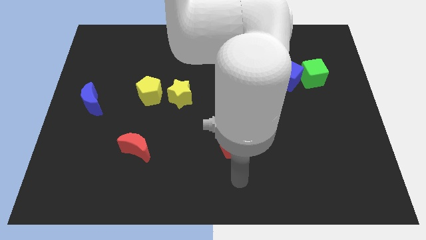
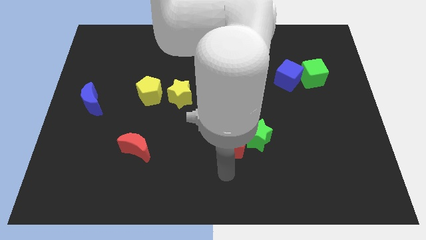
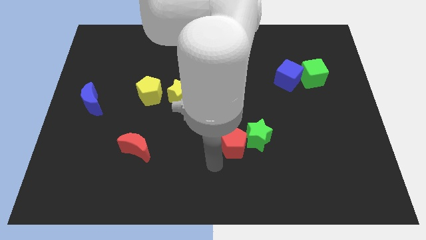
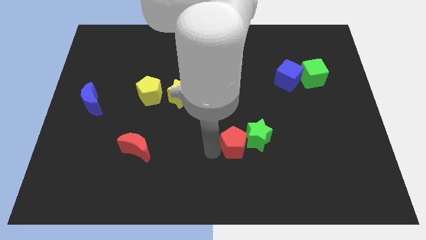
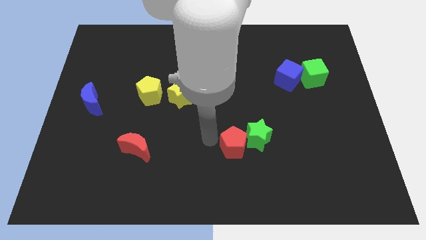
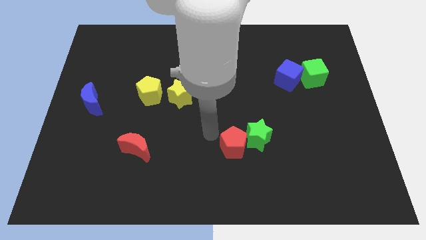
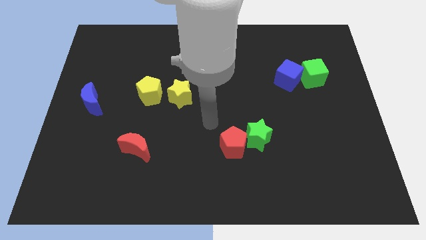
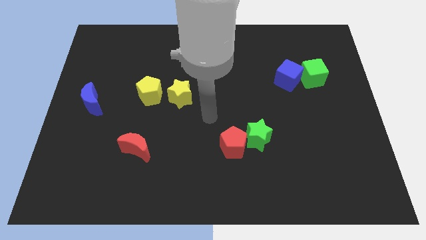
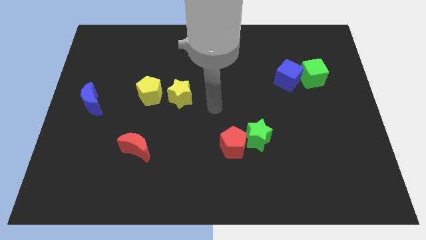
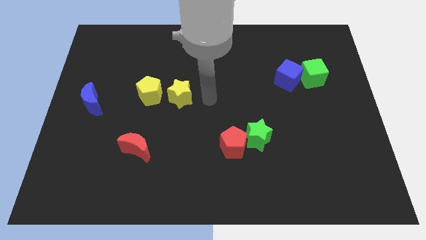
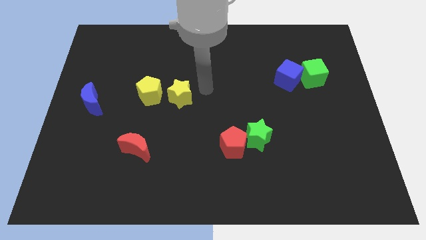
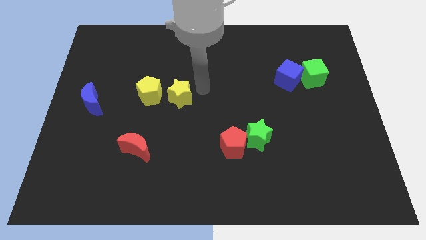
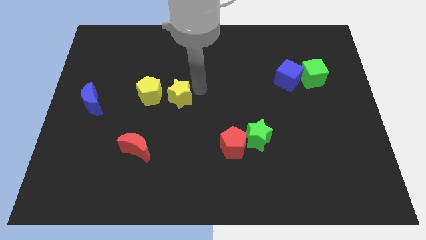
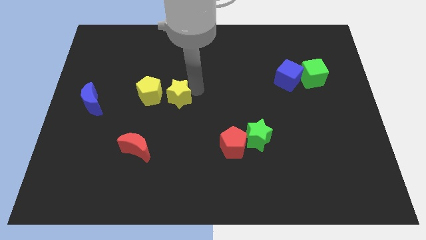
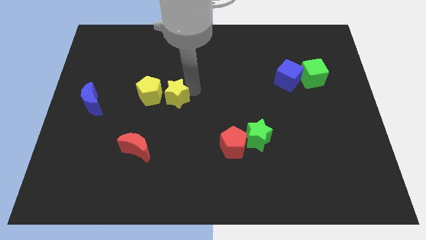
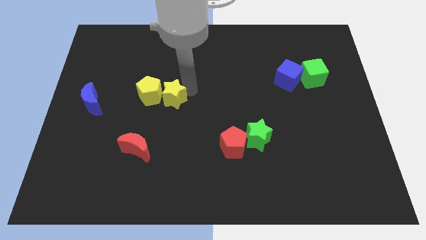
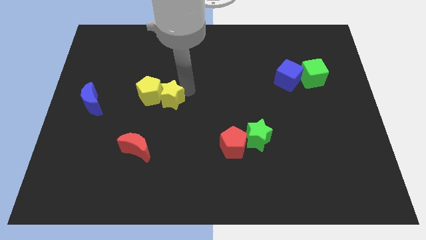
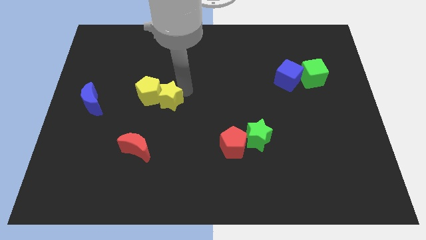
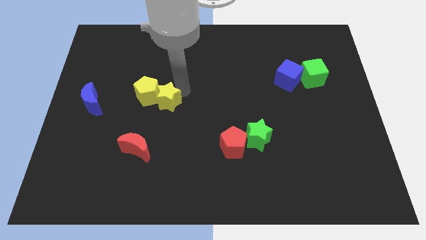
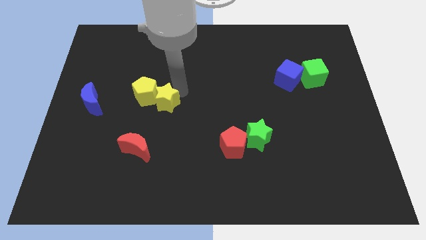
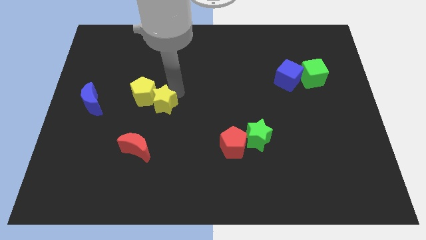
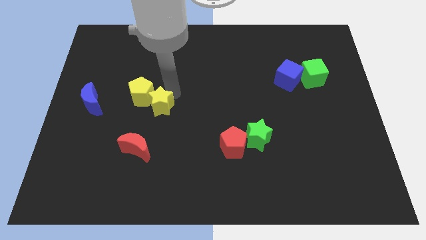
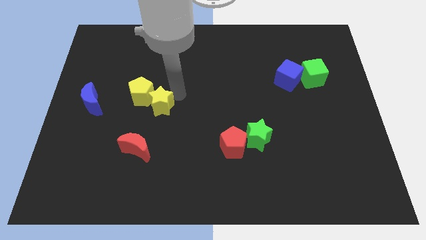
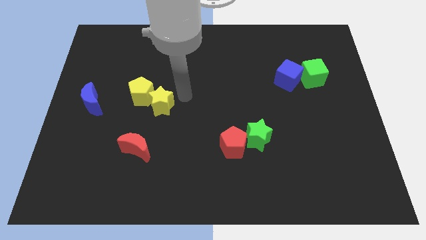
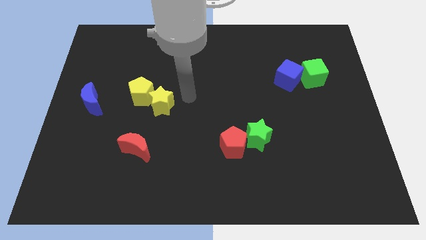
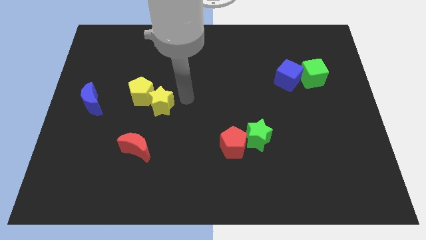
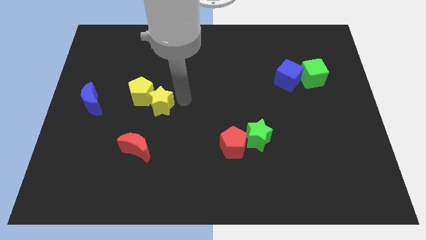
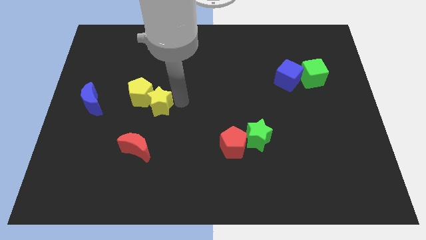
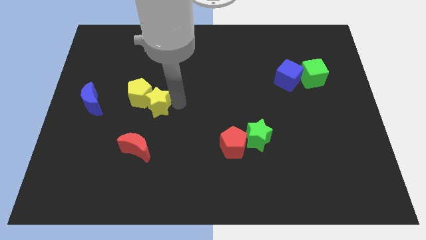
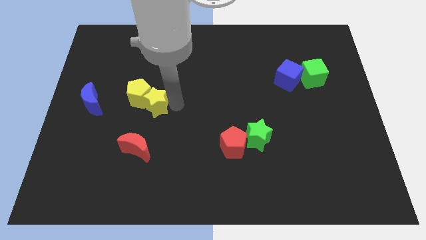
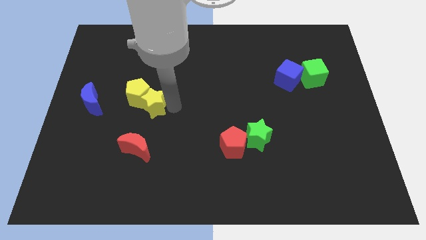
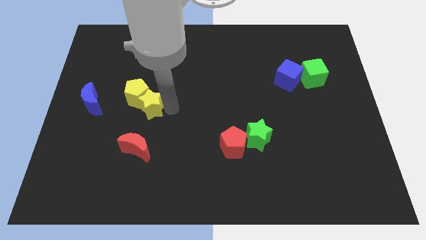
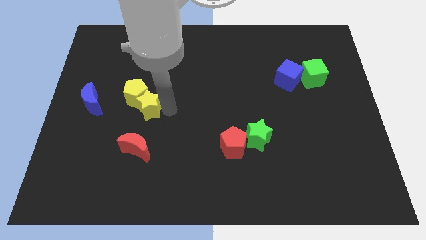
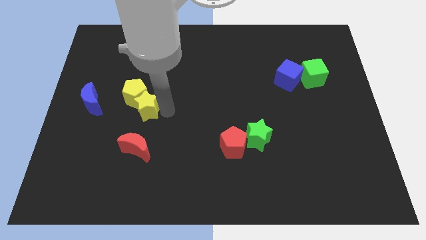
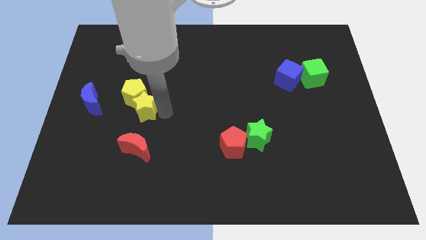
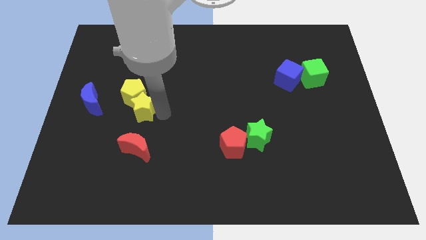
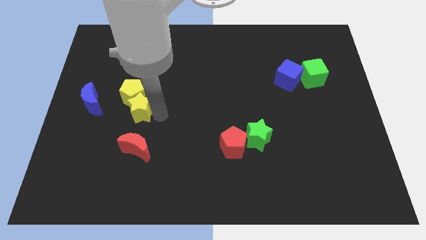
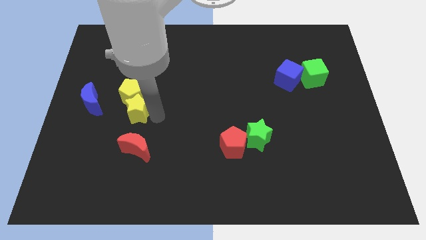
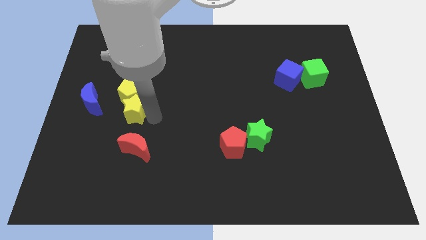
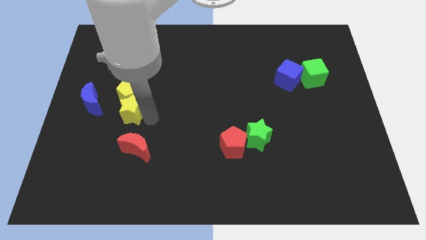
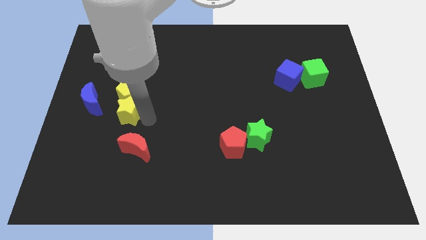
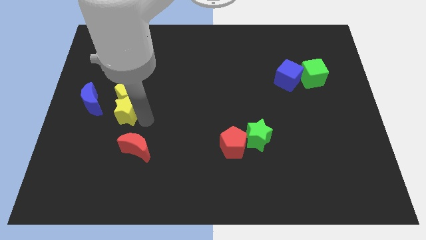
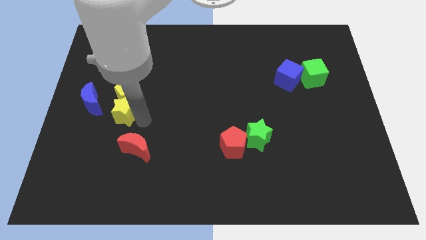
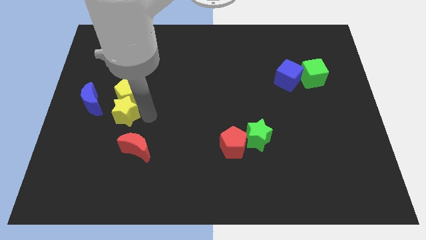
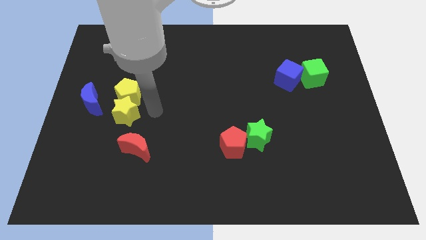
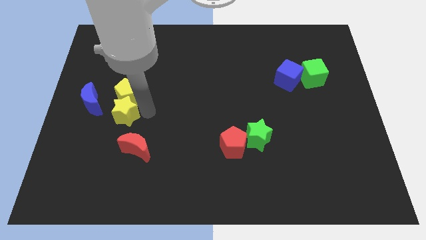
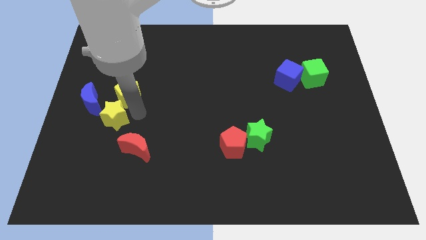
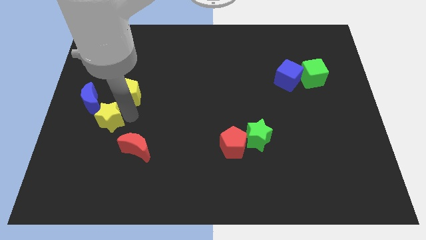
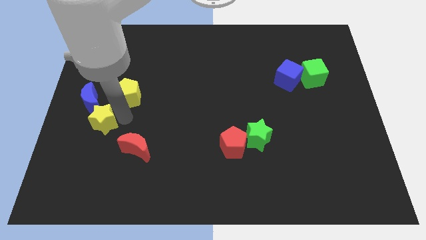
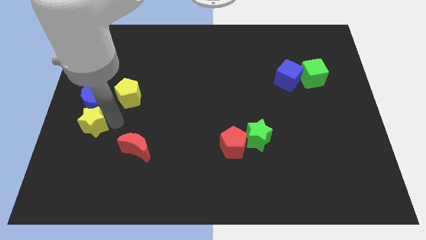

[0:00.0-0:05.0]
move the yellow star to the left side

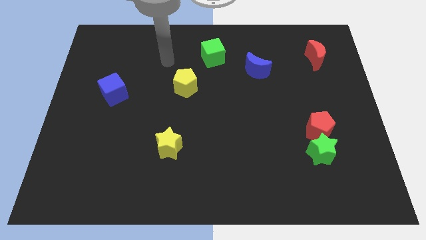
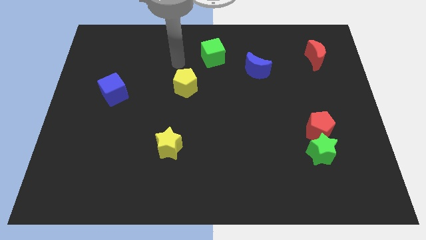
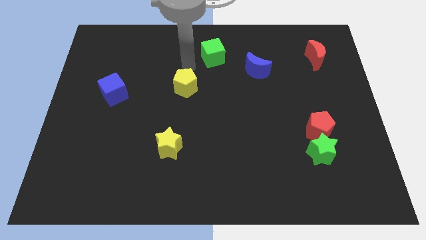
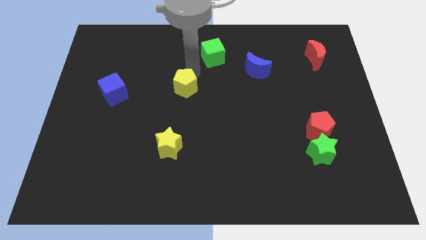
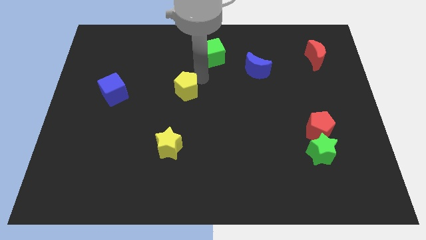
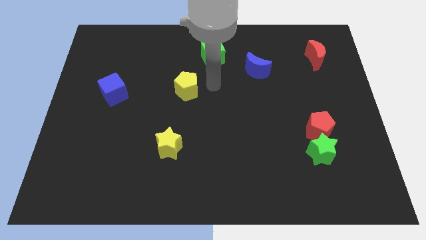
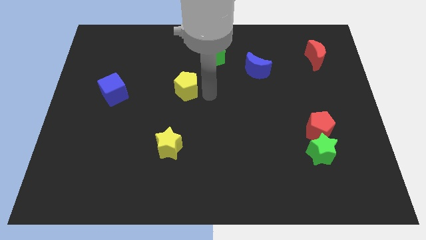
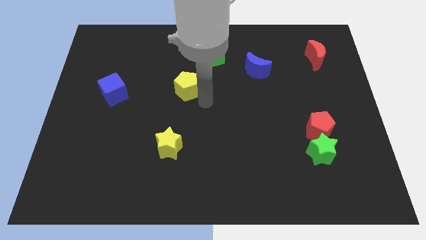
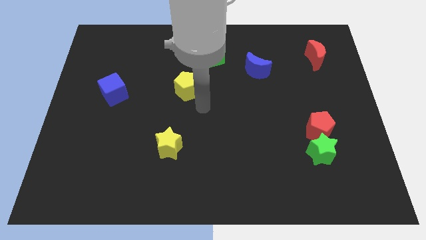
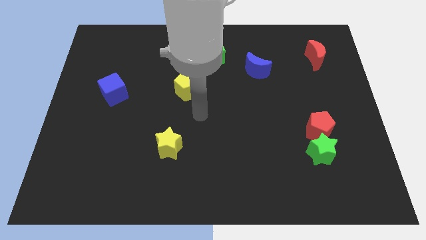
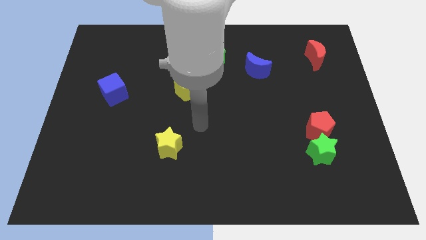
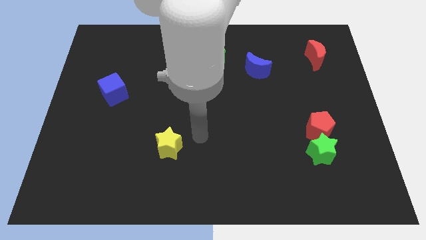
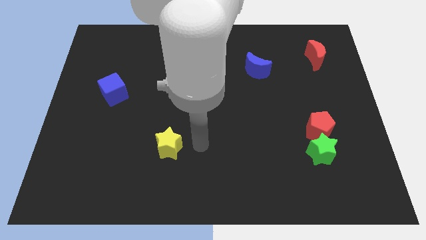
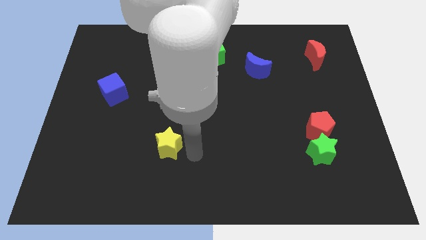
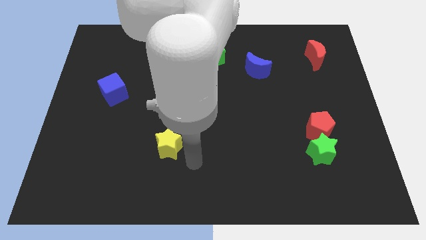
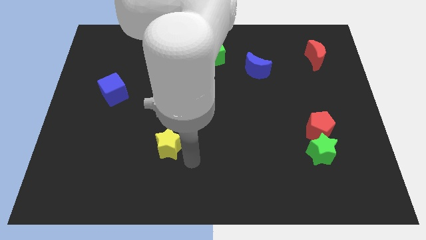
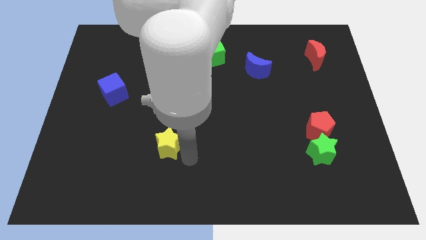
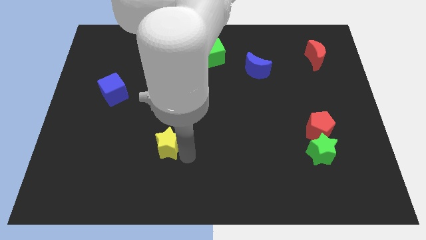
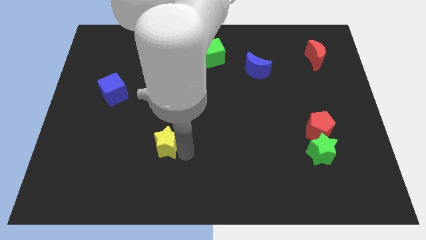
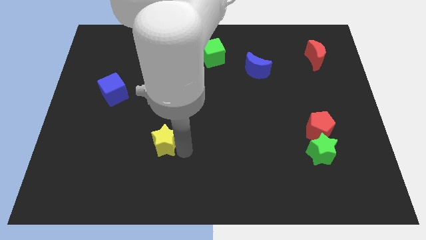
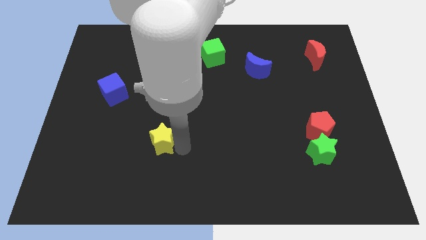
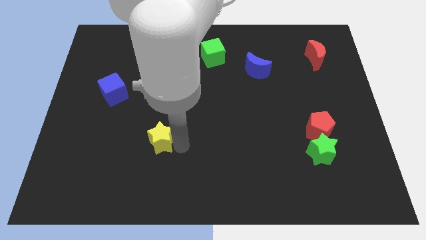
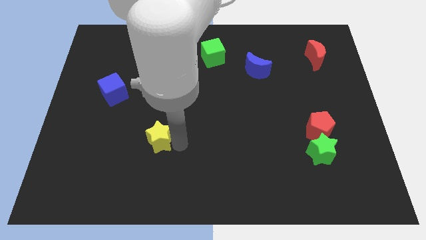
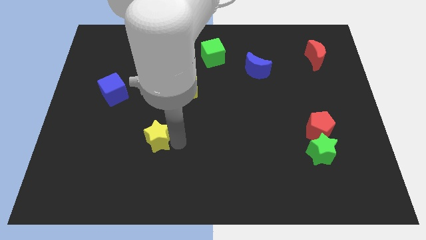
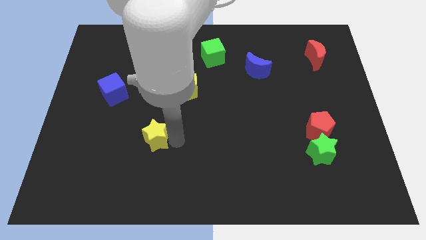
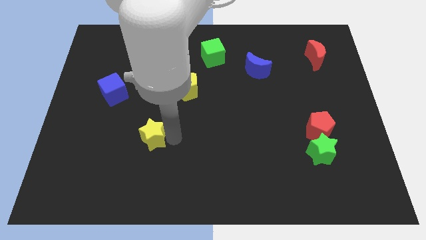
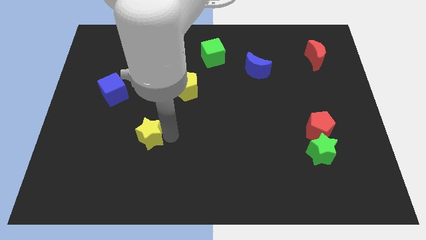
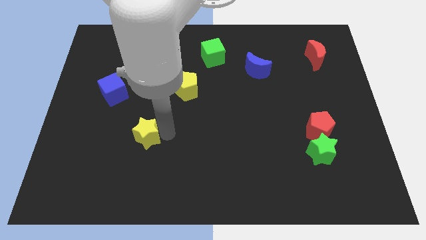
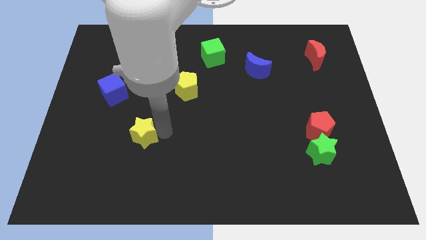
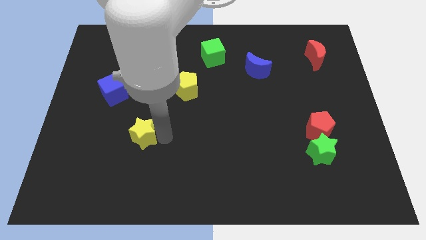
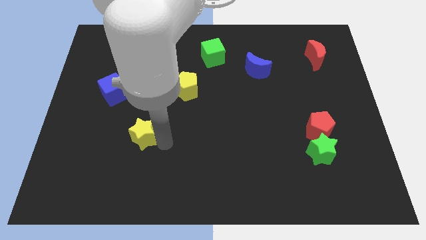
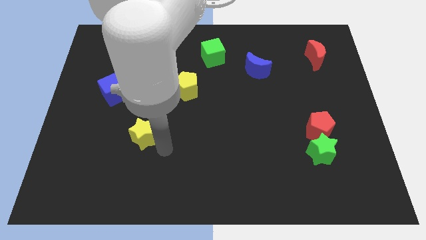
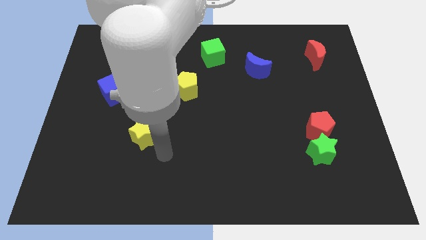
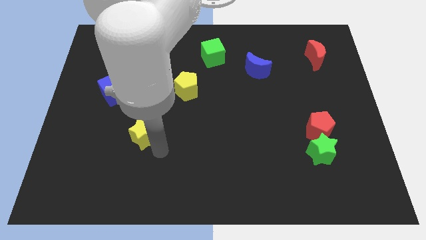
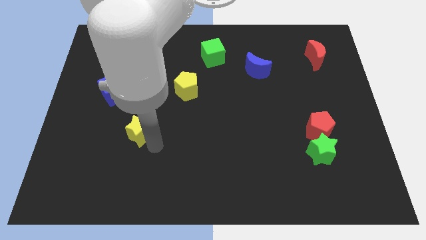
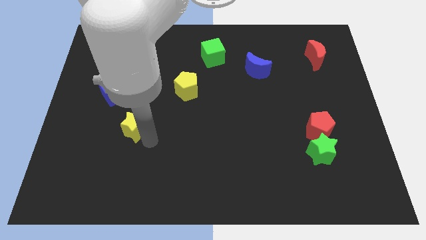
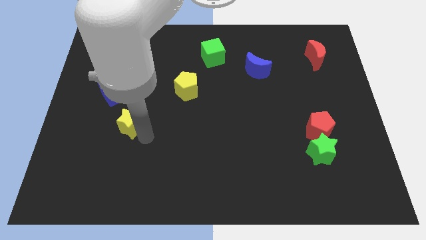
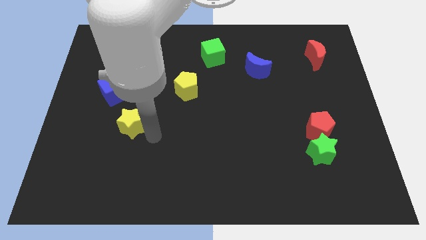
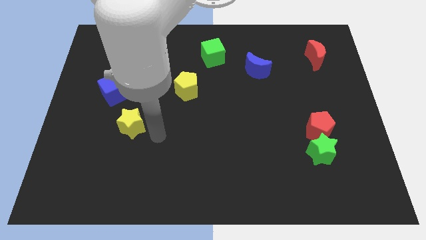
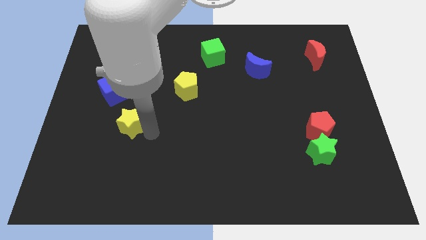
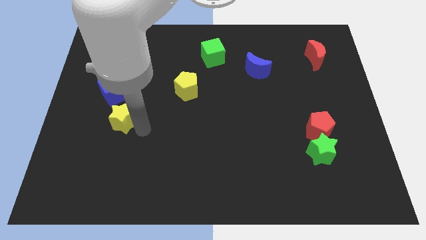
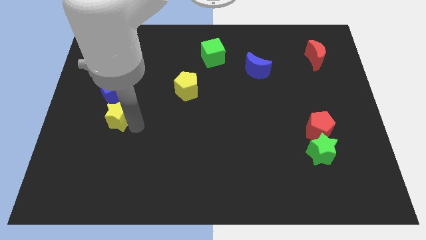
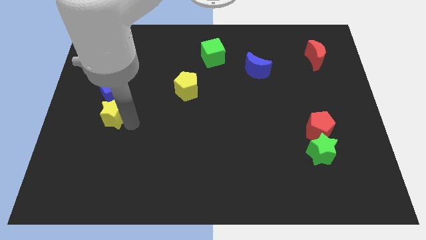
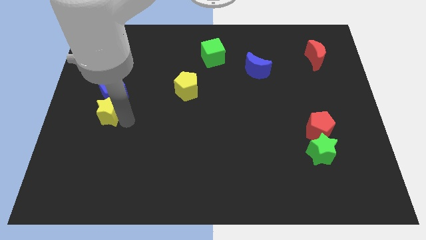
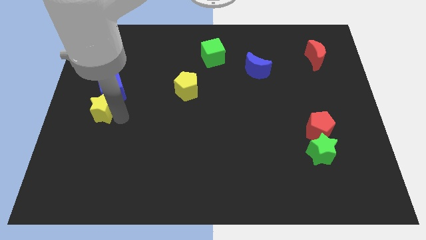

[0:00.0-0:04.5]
put the yellow star to the left side of the board
